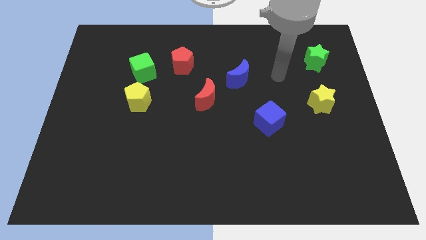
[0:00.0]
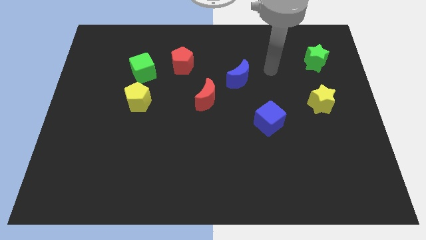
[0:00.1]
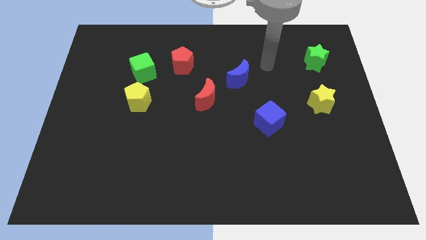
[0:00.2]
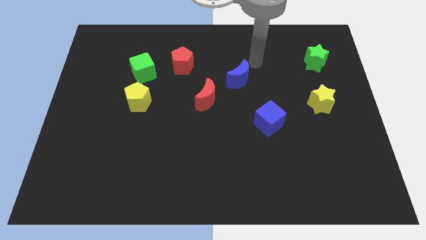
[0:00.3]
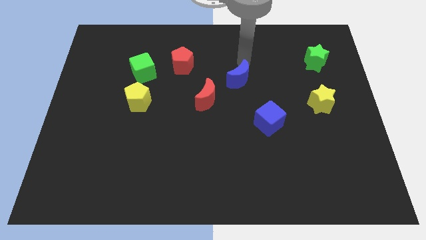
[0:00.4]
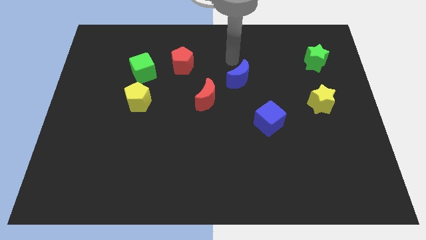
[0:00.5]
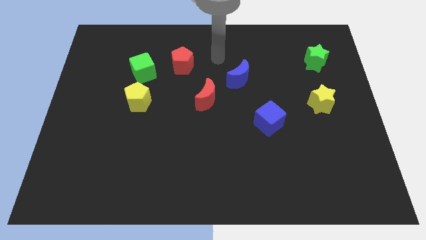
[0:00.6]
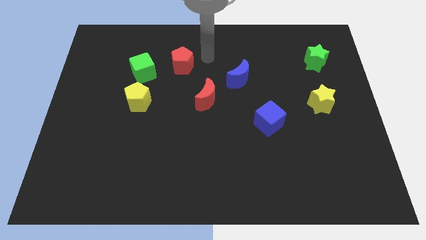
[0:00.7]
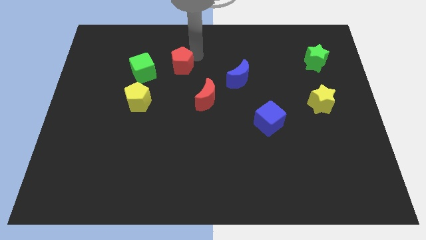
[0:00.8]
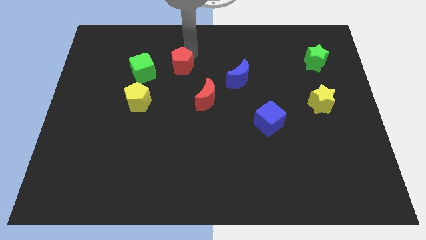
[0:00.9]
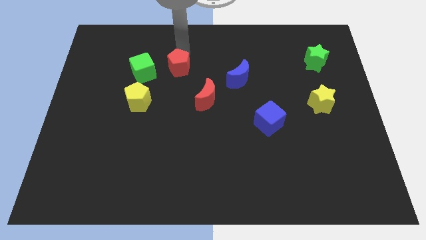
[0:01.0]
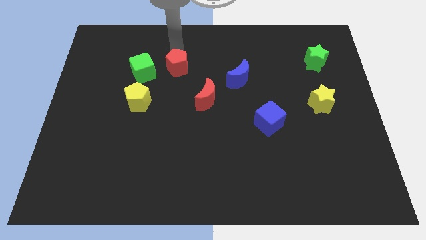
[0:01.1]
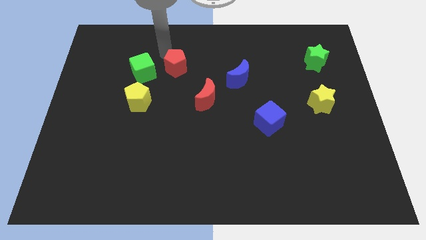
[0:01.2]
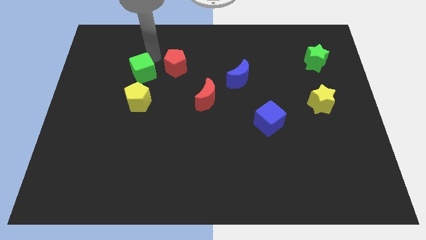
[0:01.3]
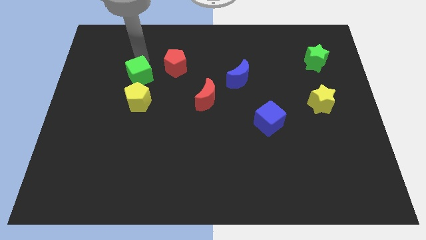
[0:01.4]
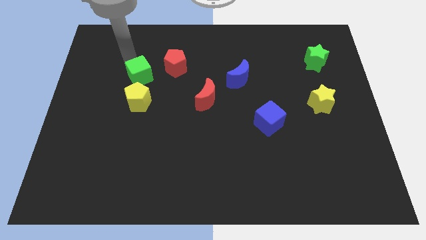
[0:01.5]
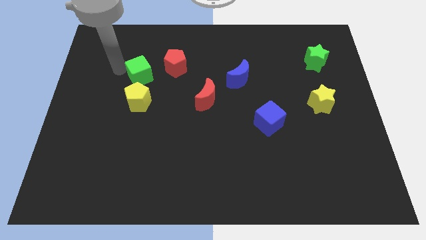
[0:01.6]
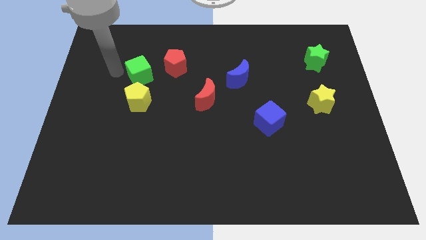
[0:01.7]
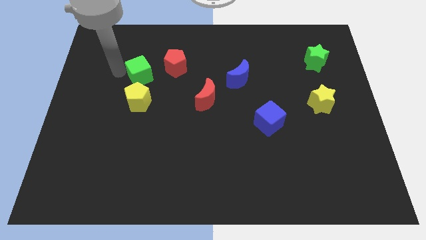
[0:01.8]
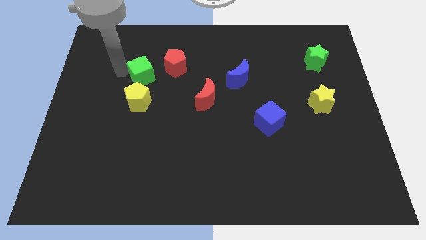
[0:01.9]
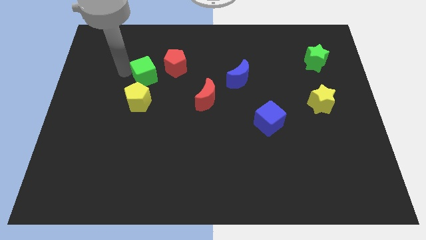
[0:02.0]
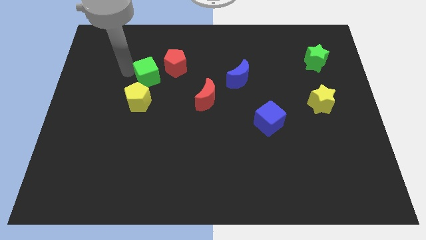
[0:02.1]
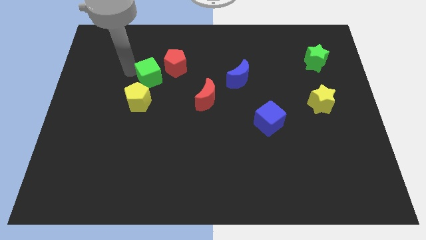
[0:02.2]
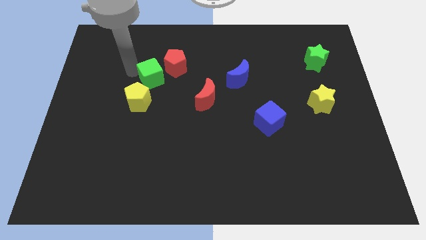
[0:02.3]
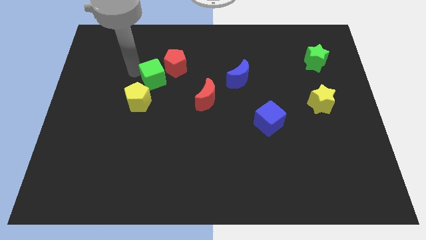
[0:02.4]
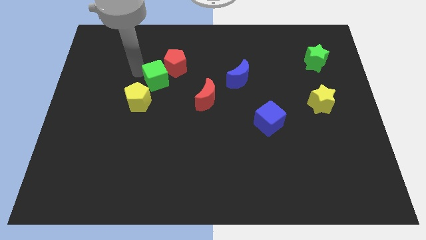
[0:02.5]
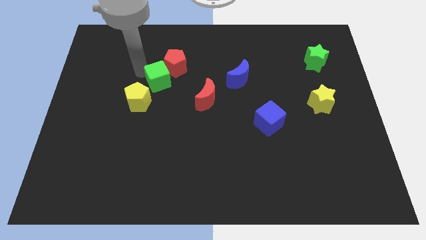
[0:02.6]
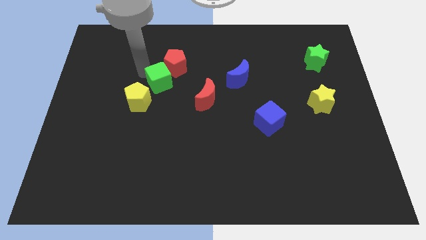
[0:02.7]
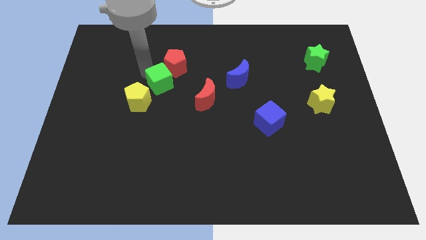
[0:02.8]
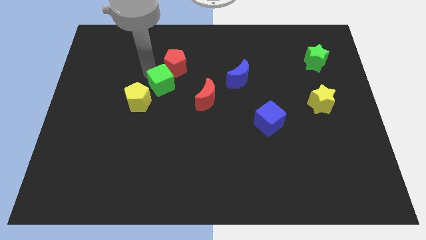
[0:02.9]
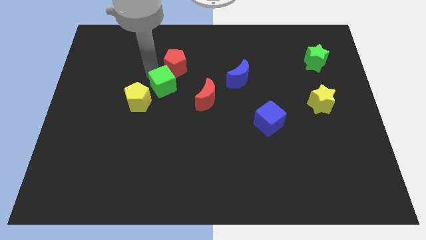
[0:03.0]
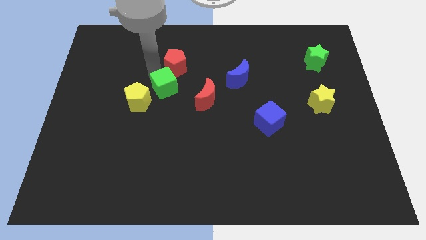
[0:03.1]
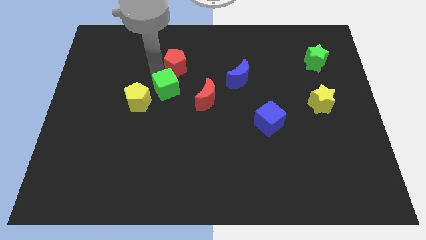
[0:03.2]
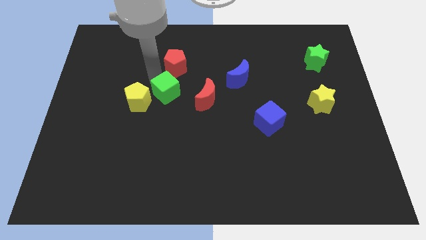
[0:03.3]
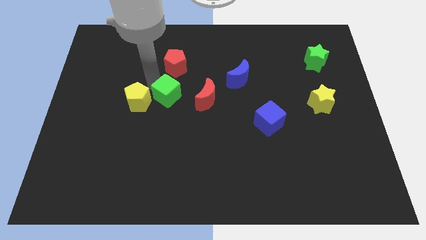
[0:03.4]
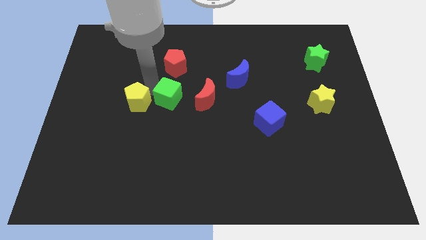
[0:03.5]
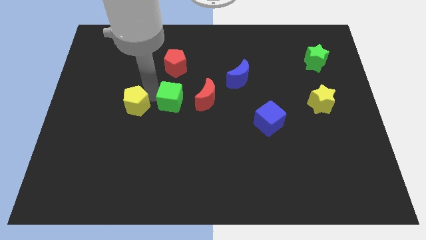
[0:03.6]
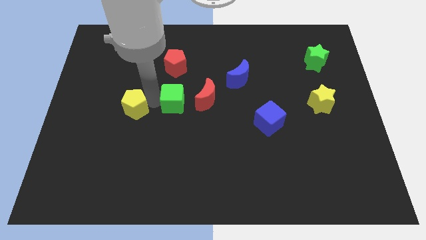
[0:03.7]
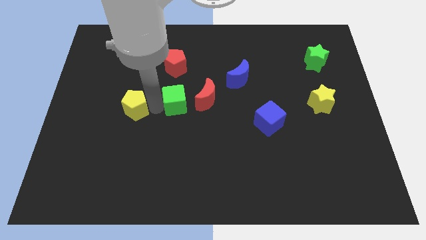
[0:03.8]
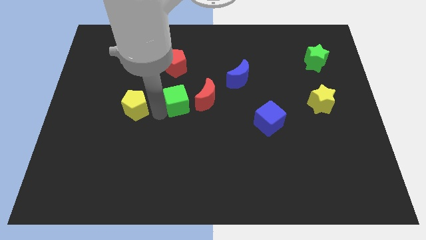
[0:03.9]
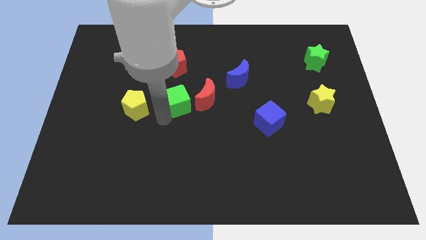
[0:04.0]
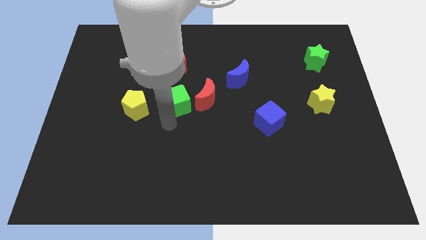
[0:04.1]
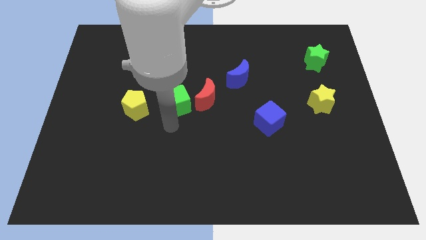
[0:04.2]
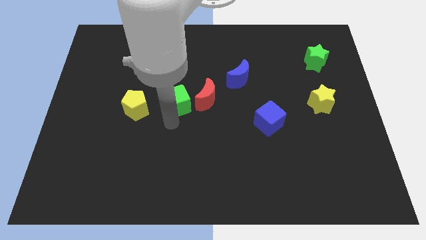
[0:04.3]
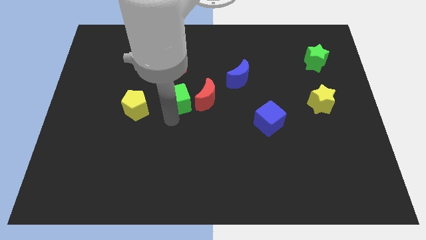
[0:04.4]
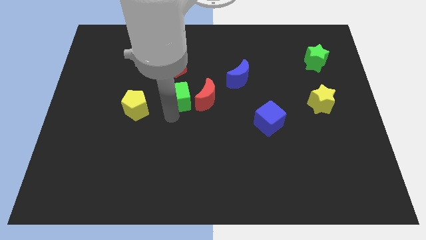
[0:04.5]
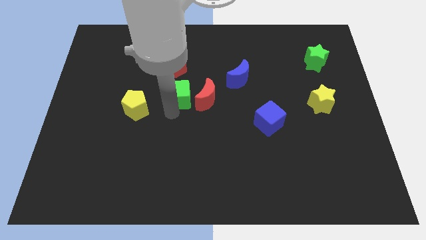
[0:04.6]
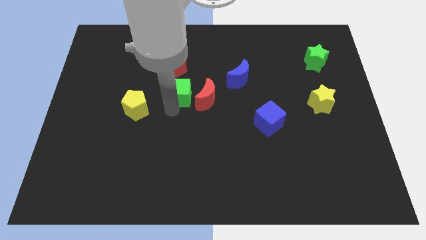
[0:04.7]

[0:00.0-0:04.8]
slide the green cube a bit right

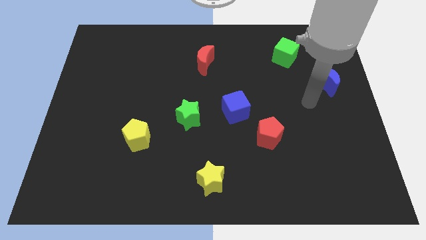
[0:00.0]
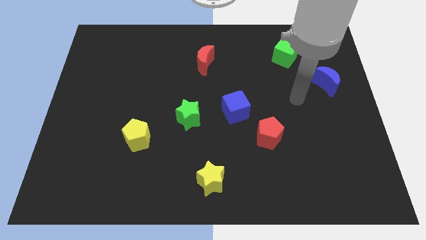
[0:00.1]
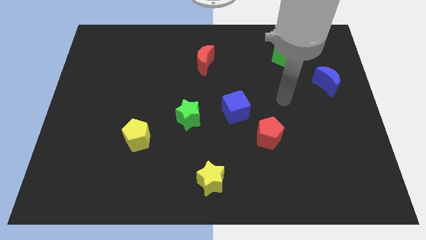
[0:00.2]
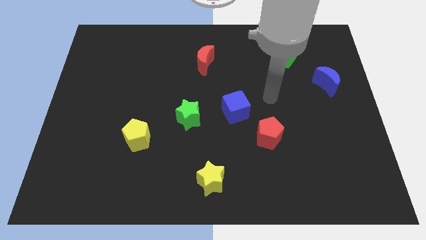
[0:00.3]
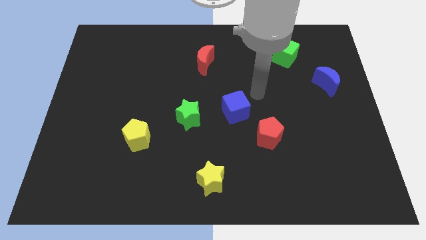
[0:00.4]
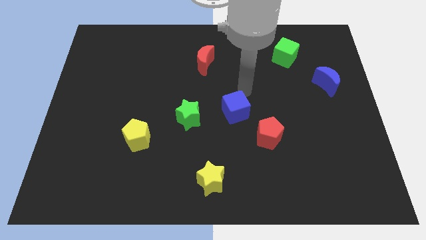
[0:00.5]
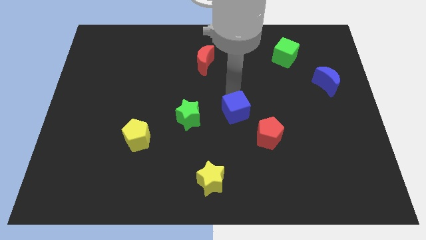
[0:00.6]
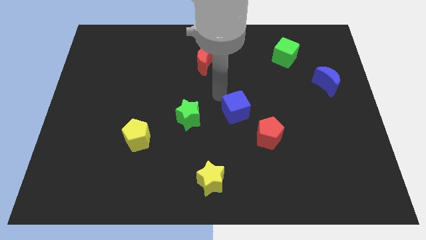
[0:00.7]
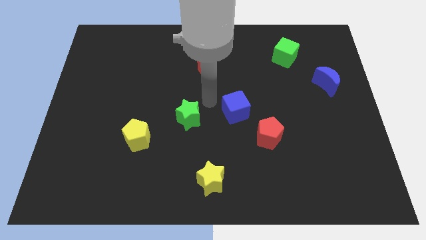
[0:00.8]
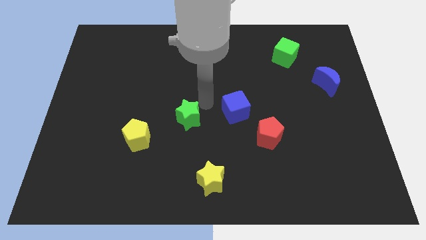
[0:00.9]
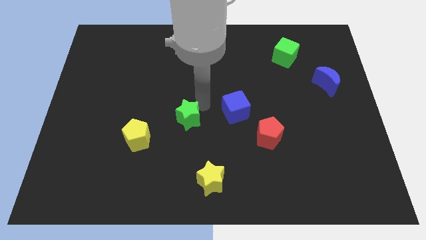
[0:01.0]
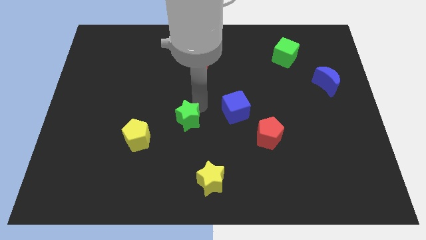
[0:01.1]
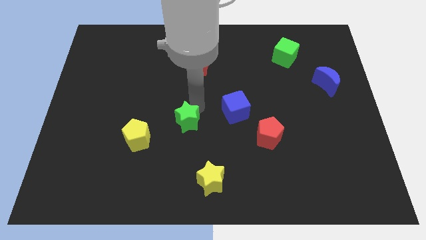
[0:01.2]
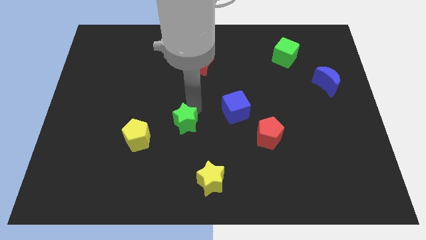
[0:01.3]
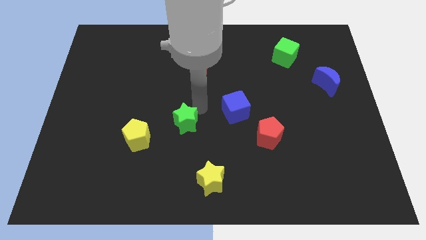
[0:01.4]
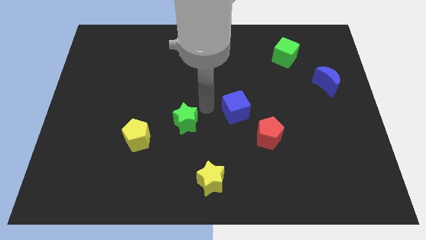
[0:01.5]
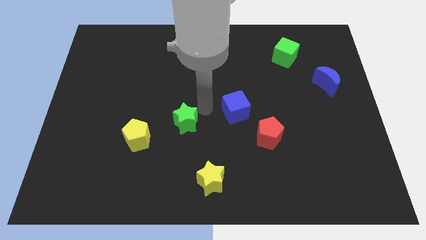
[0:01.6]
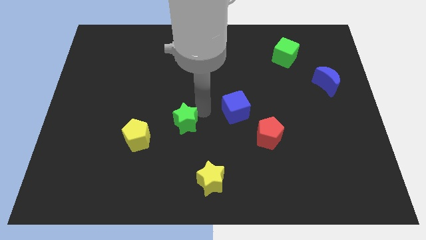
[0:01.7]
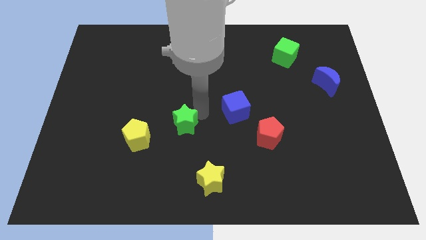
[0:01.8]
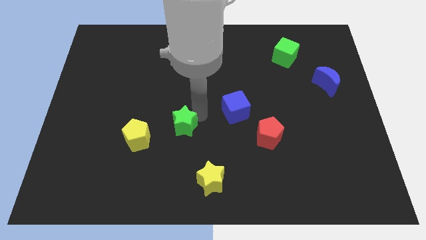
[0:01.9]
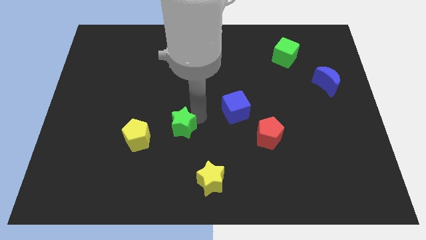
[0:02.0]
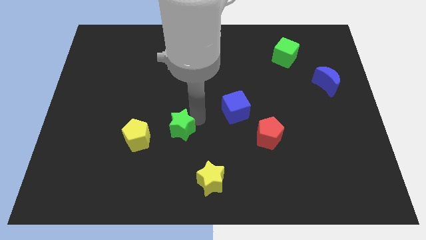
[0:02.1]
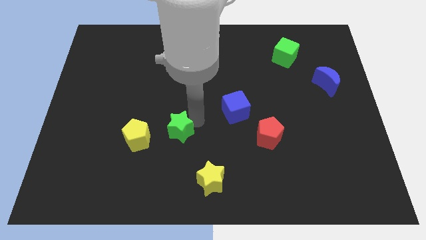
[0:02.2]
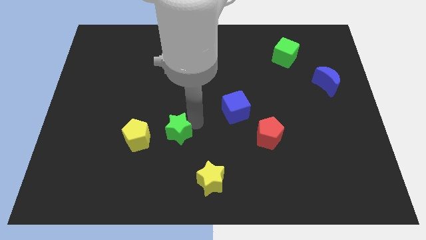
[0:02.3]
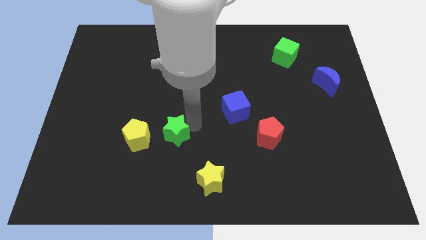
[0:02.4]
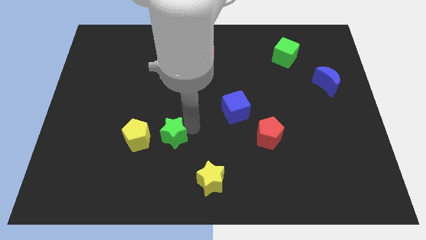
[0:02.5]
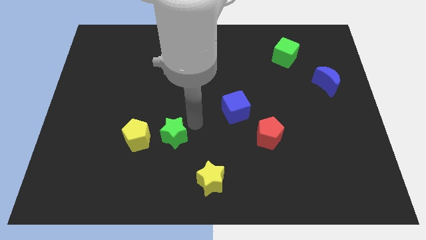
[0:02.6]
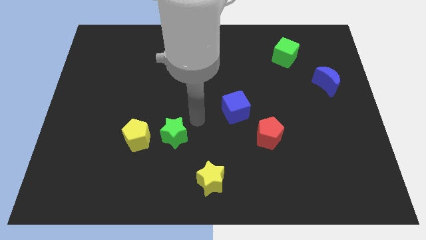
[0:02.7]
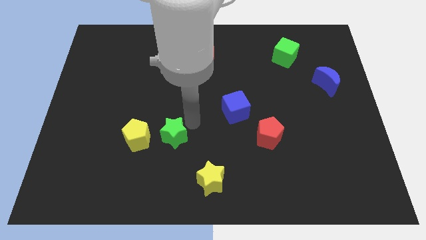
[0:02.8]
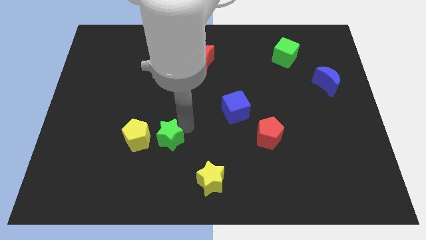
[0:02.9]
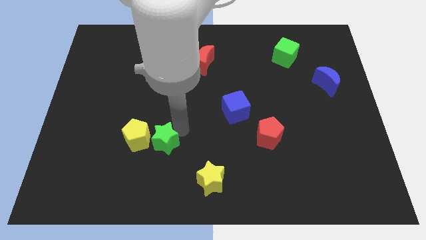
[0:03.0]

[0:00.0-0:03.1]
slightly slide the green star down and left
